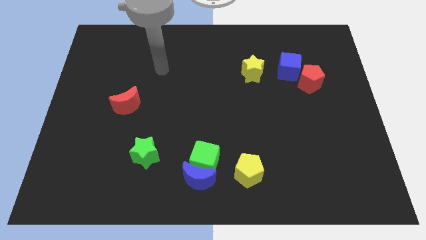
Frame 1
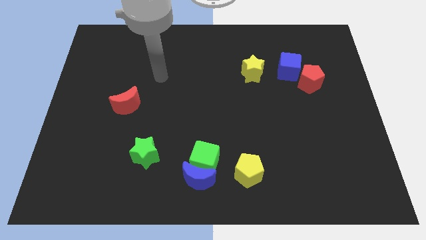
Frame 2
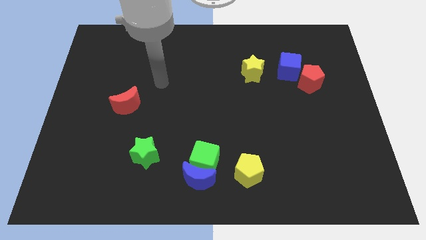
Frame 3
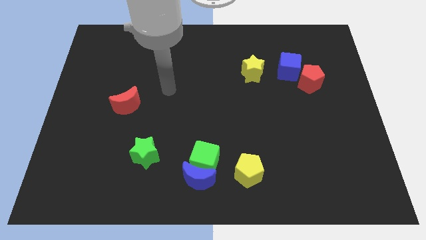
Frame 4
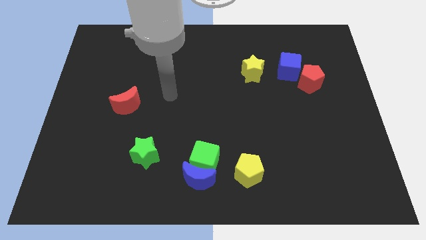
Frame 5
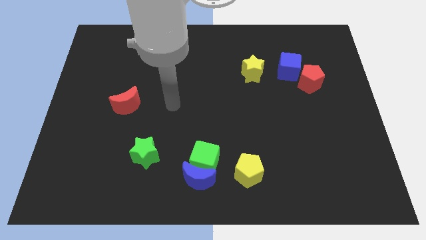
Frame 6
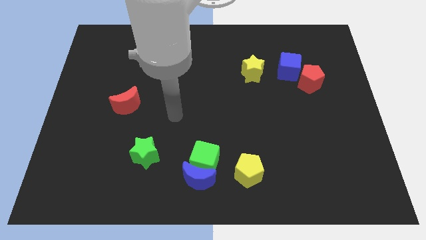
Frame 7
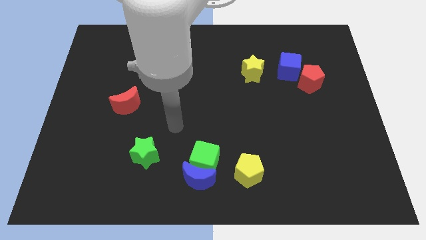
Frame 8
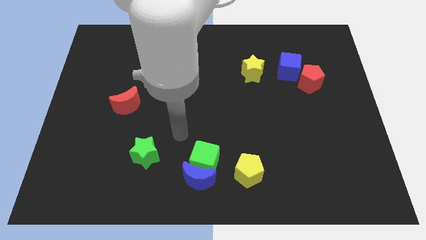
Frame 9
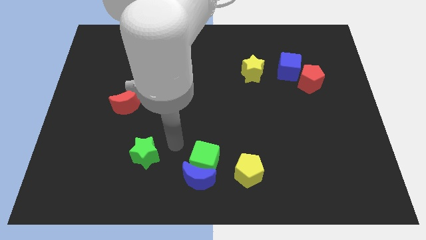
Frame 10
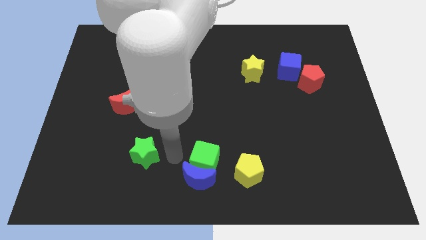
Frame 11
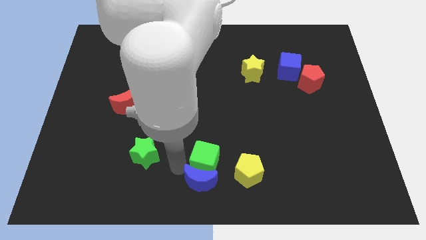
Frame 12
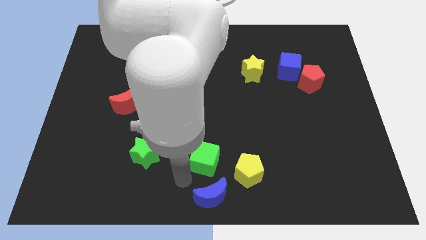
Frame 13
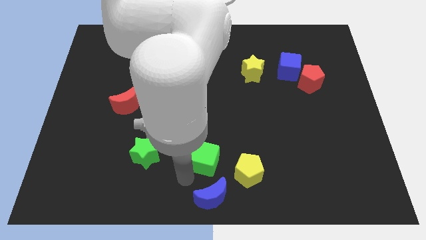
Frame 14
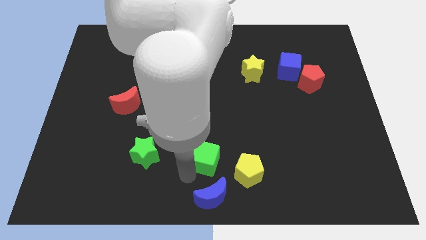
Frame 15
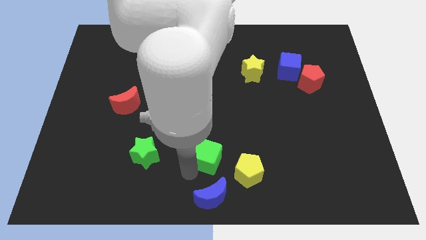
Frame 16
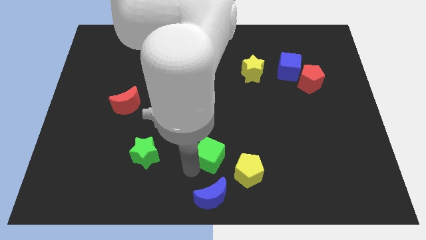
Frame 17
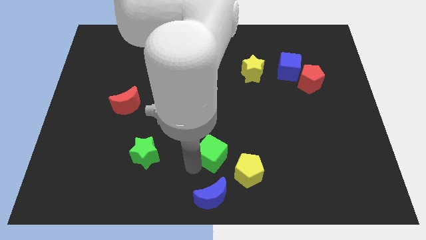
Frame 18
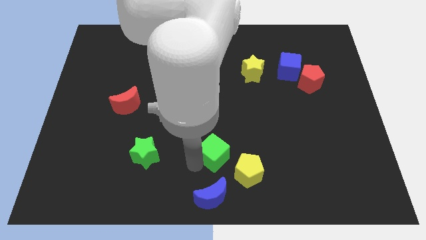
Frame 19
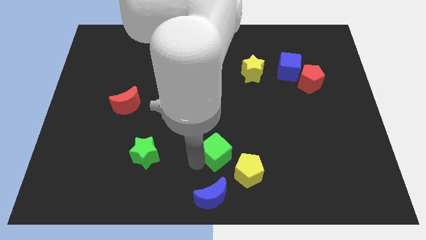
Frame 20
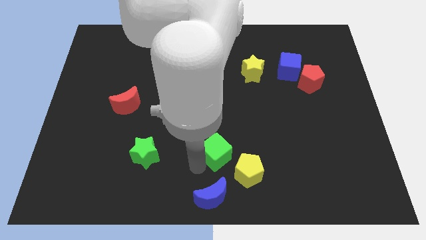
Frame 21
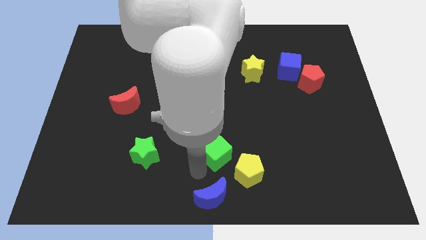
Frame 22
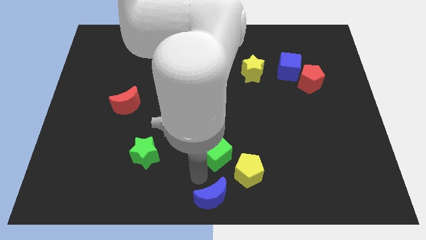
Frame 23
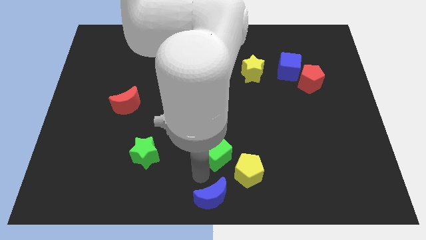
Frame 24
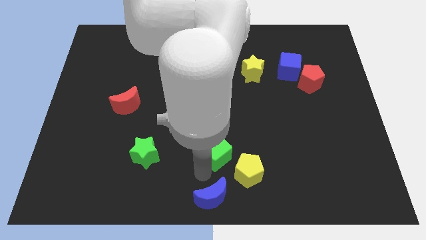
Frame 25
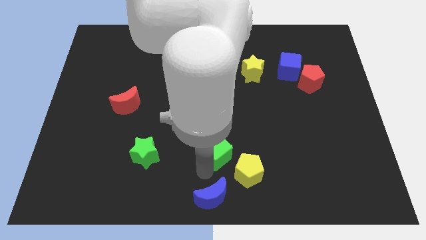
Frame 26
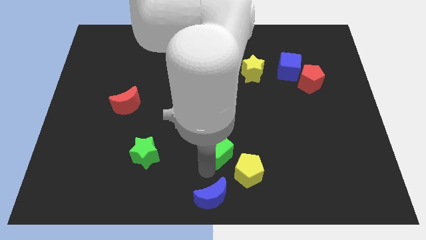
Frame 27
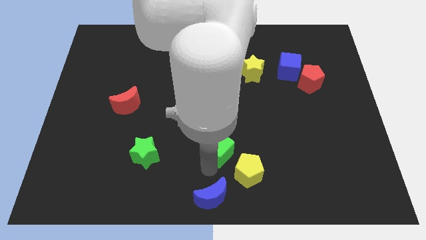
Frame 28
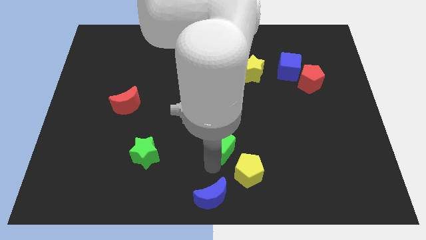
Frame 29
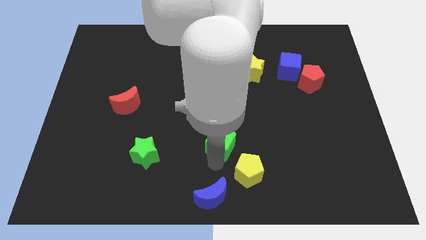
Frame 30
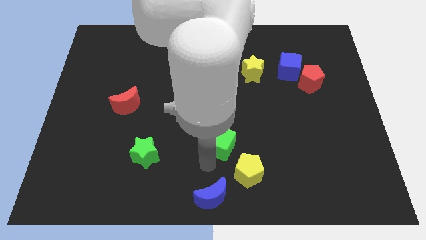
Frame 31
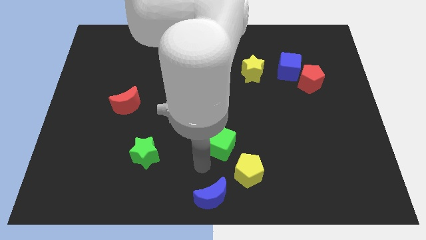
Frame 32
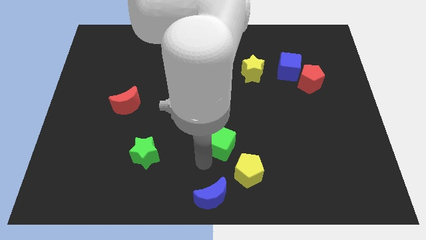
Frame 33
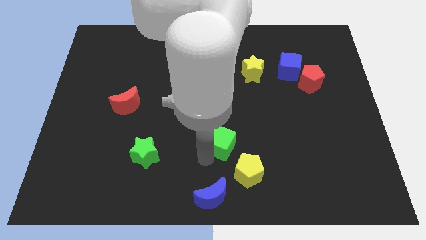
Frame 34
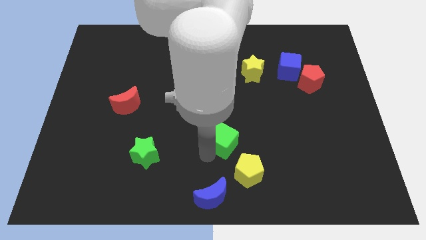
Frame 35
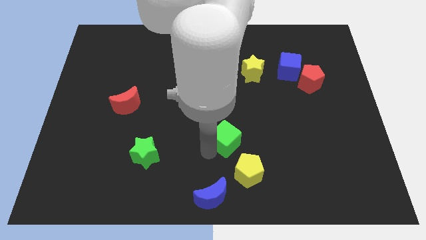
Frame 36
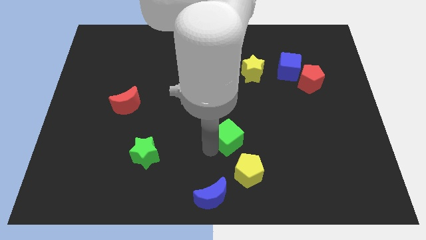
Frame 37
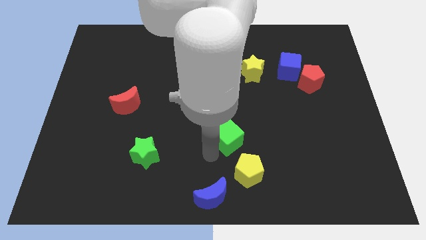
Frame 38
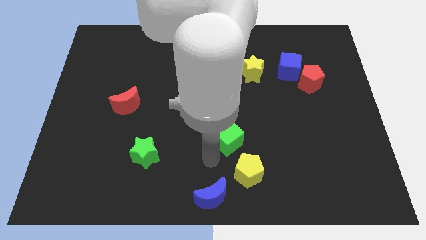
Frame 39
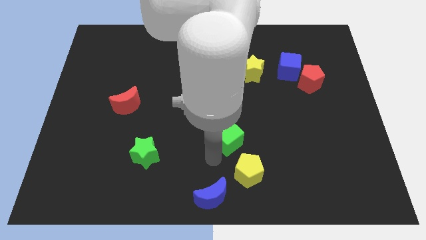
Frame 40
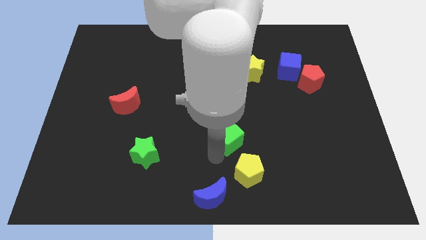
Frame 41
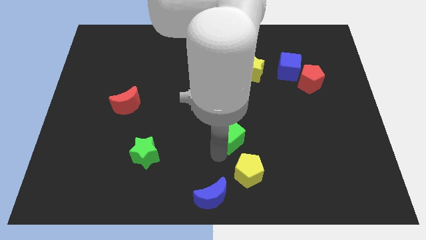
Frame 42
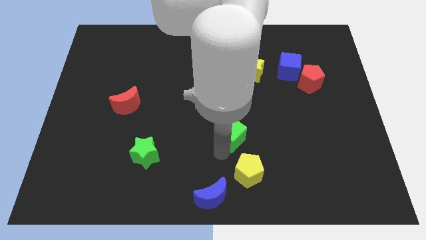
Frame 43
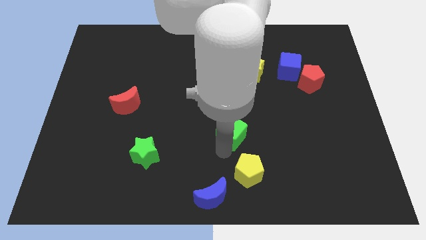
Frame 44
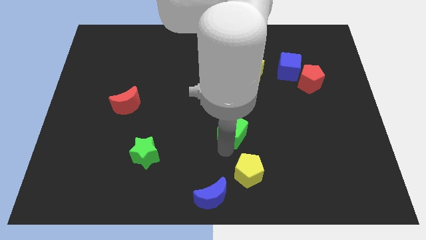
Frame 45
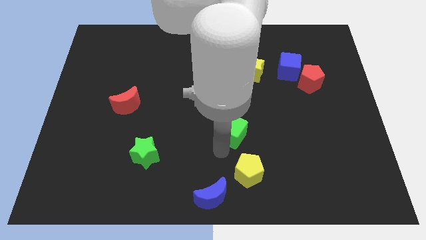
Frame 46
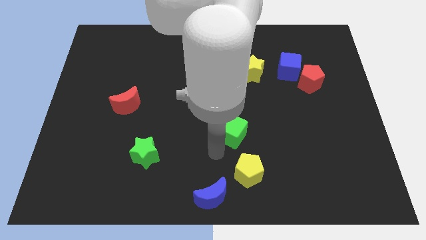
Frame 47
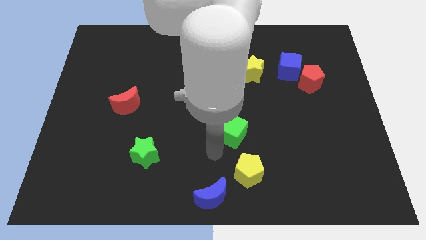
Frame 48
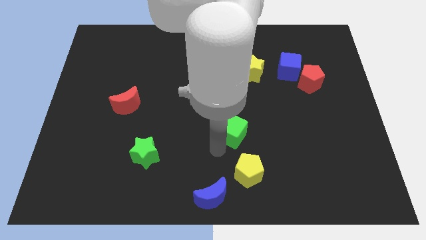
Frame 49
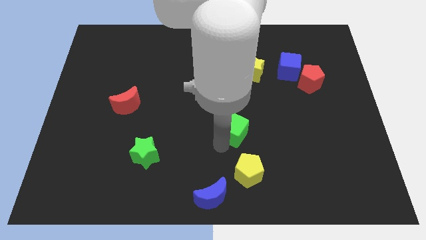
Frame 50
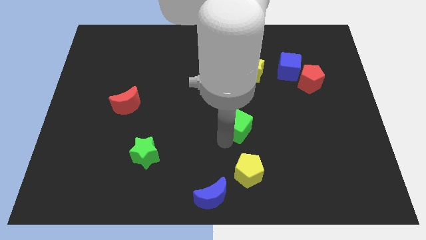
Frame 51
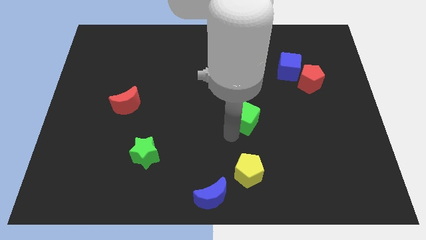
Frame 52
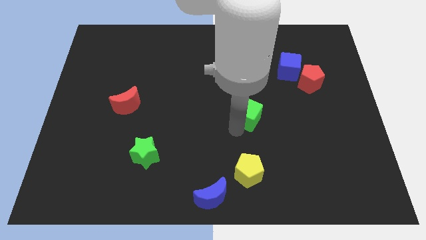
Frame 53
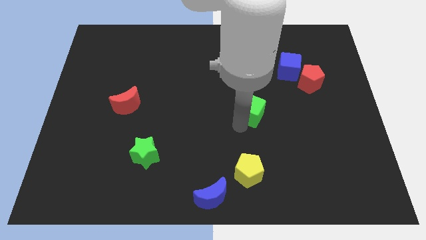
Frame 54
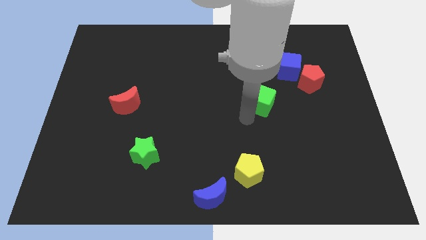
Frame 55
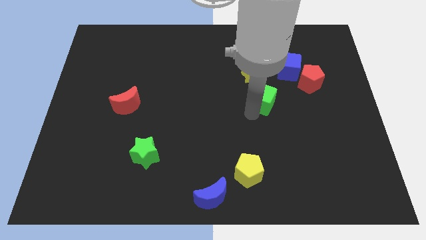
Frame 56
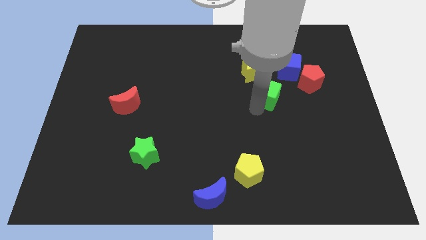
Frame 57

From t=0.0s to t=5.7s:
slide the green cube left of the red pentagon
